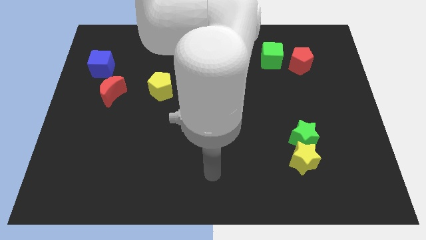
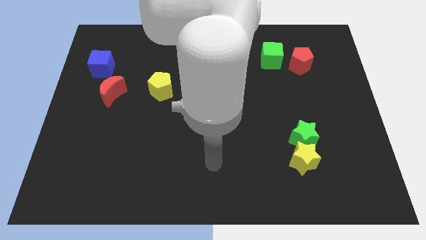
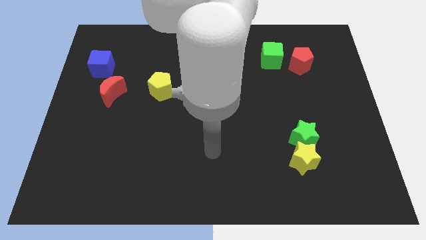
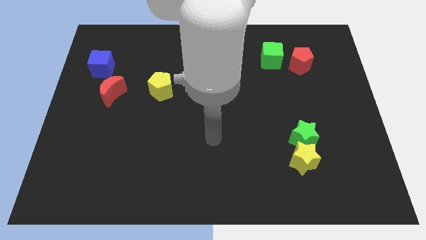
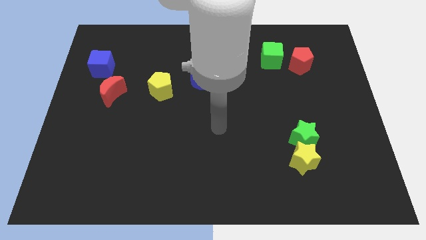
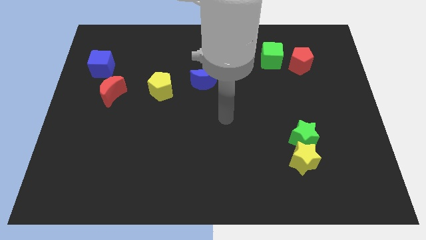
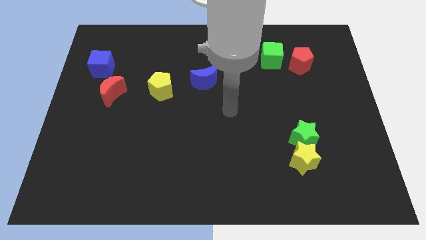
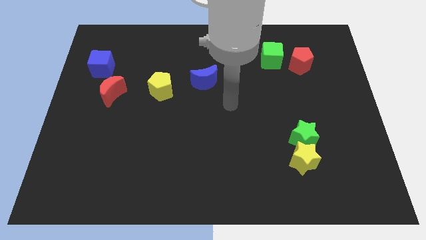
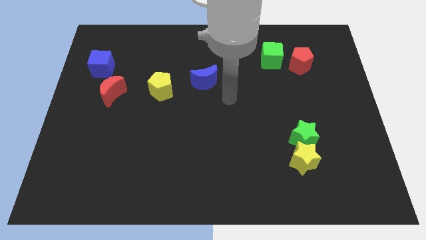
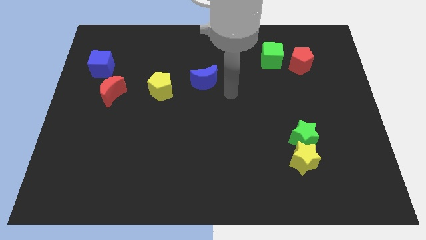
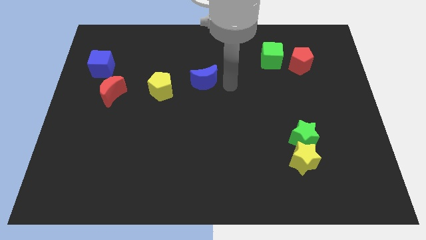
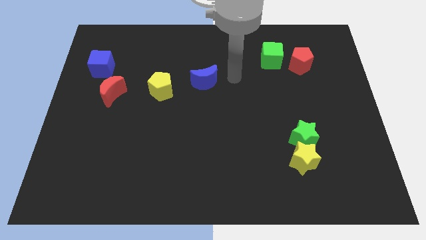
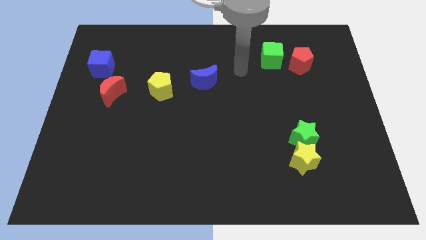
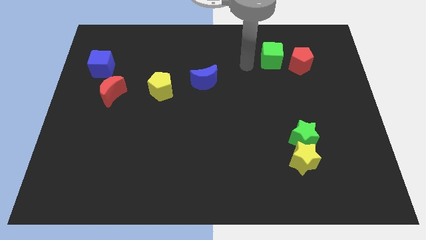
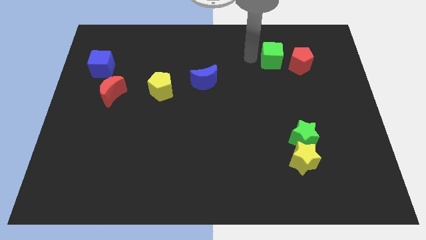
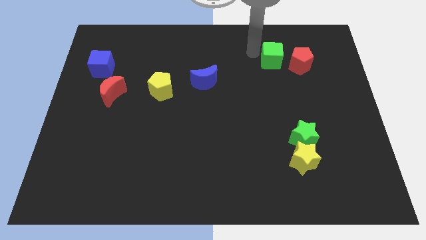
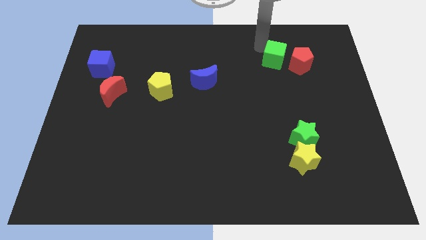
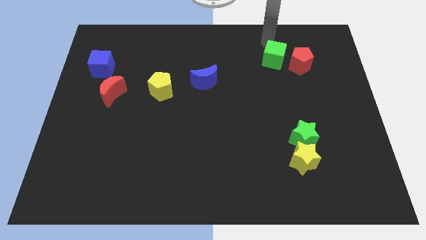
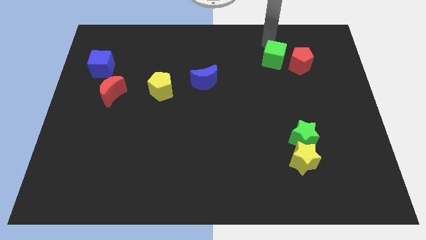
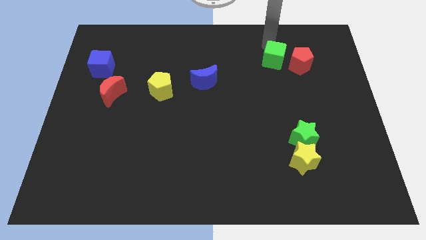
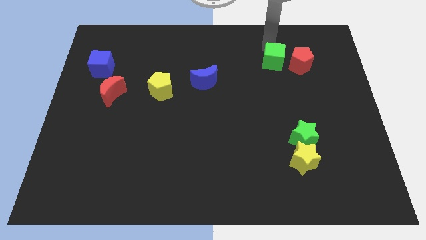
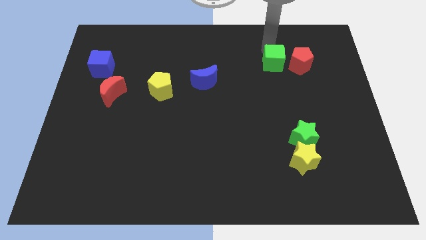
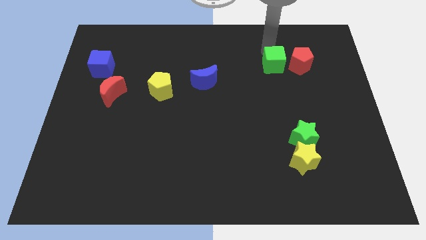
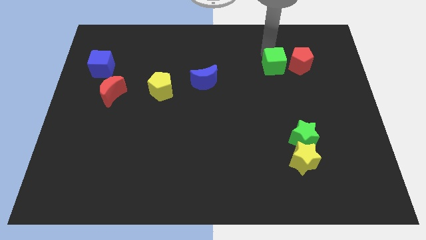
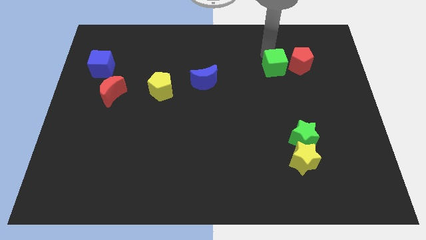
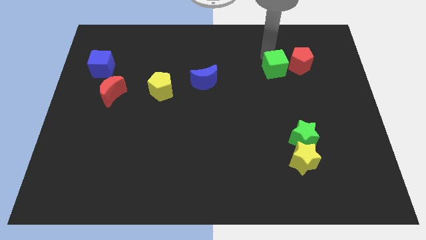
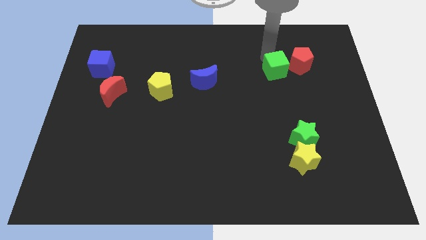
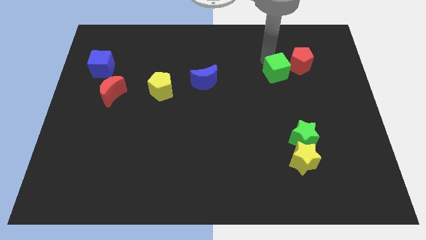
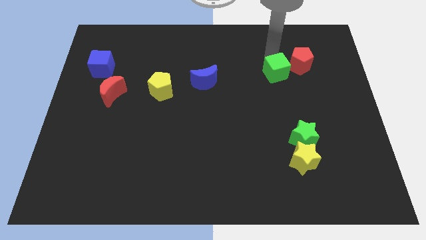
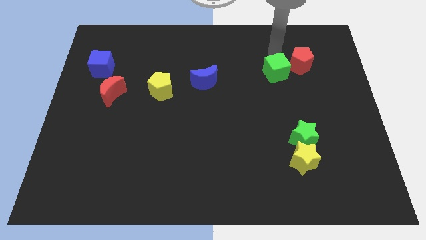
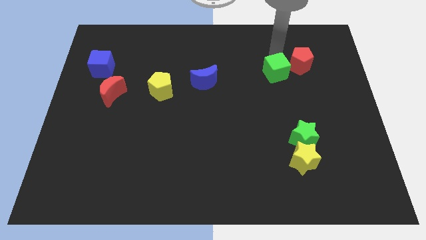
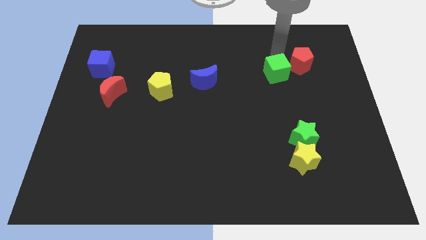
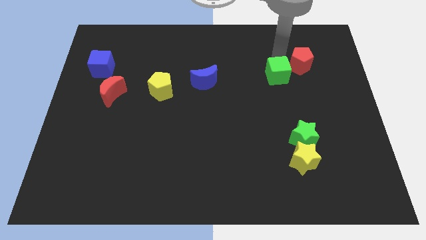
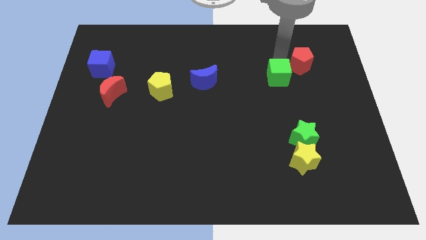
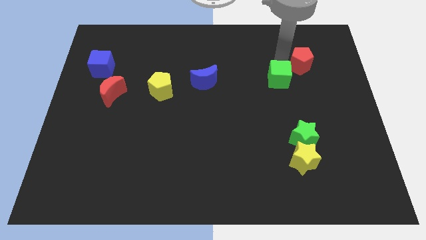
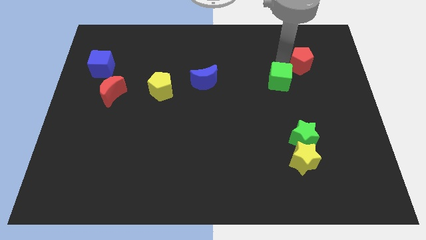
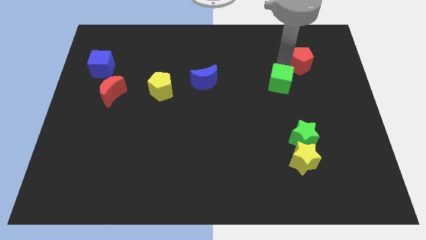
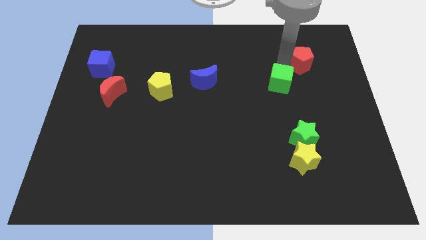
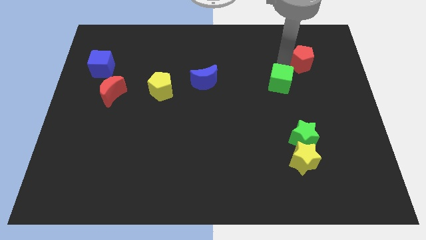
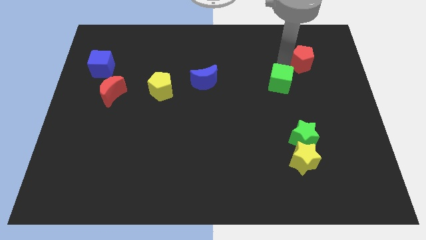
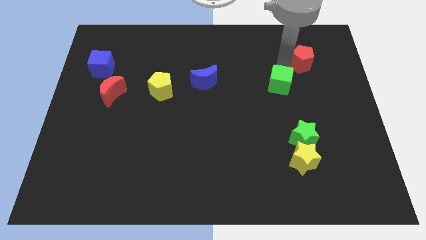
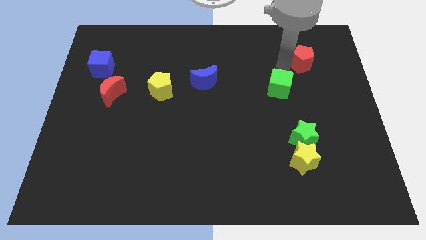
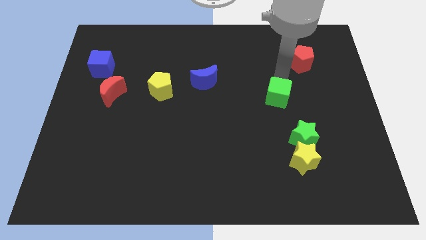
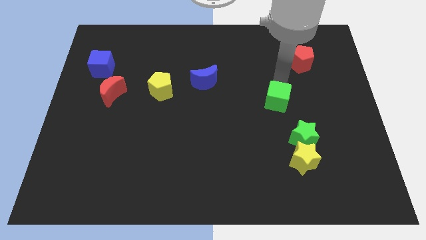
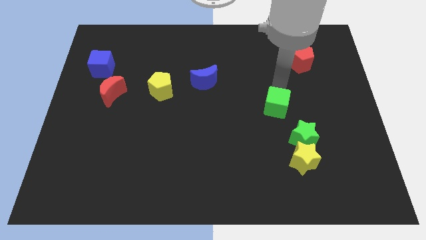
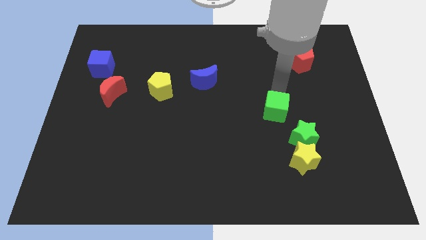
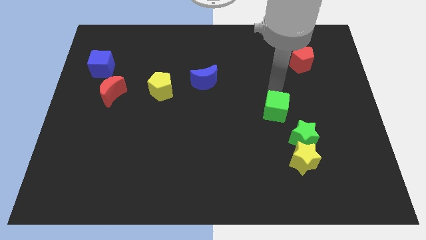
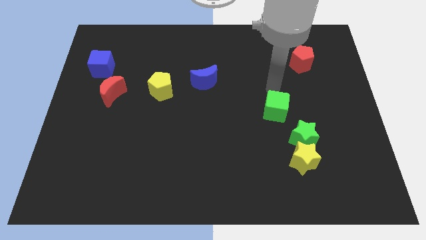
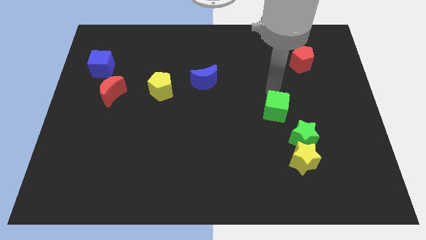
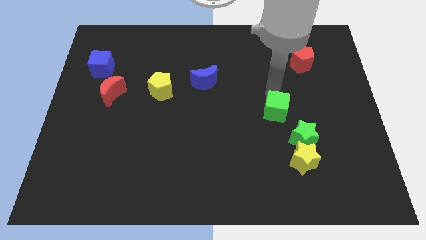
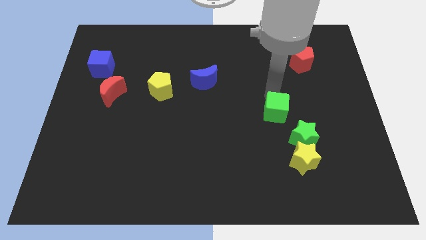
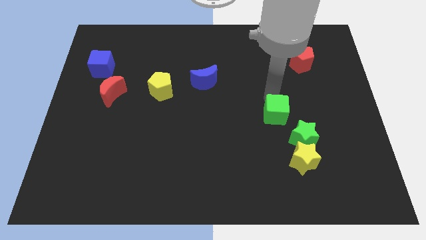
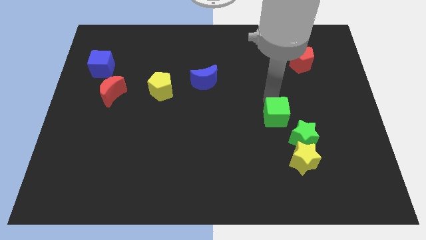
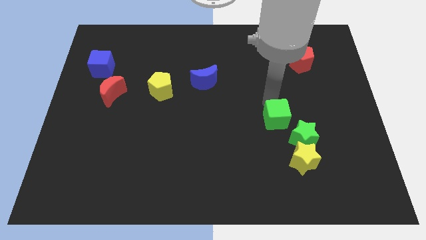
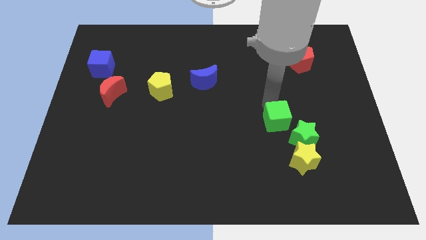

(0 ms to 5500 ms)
slide the green cube down

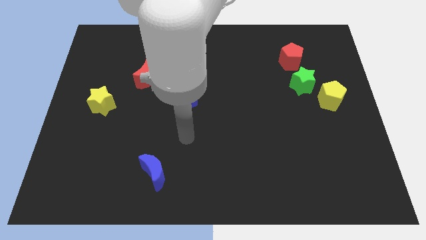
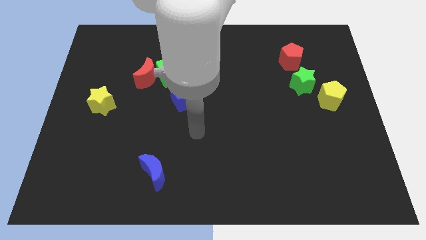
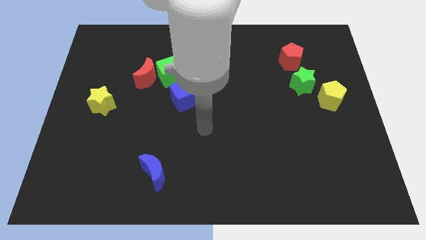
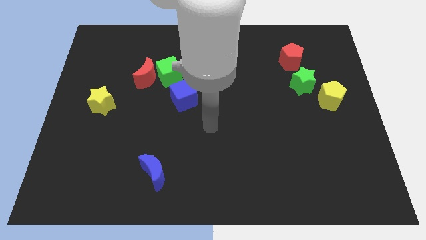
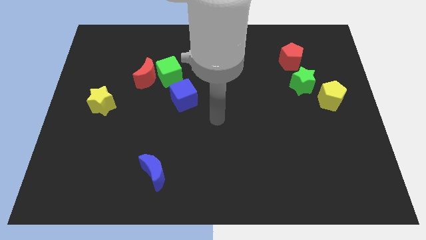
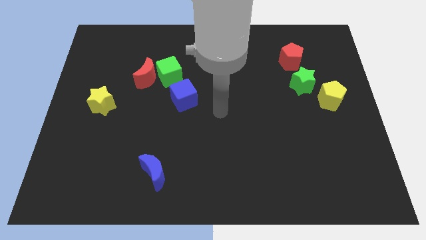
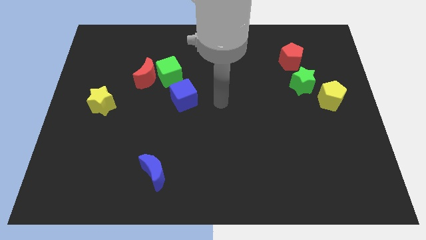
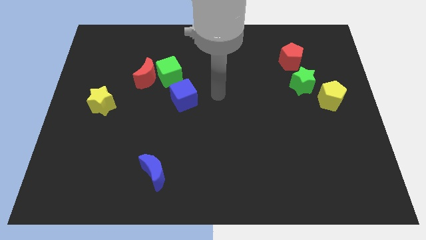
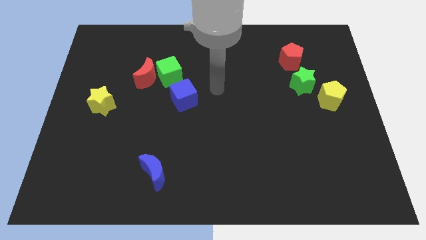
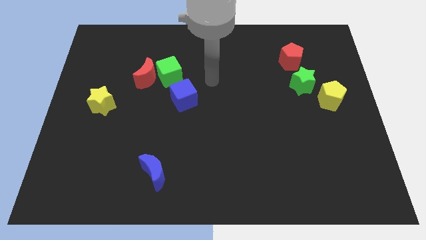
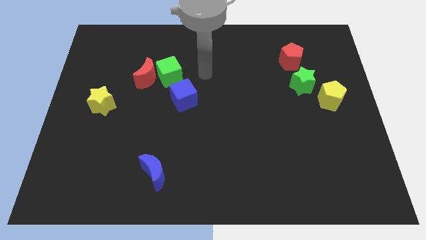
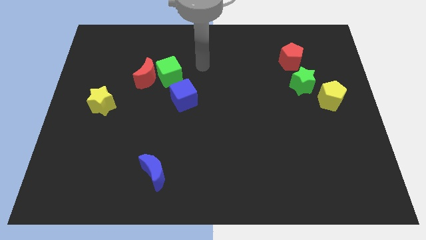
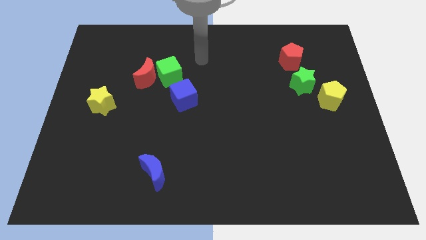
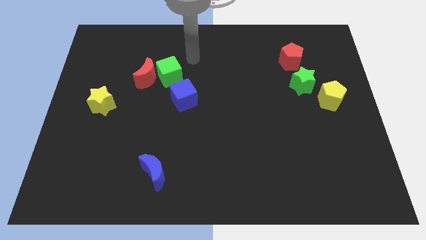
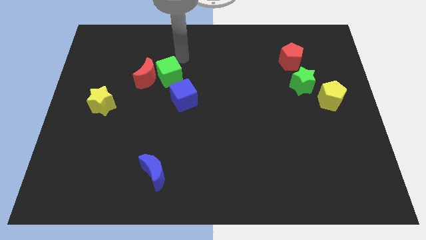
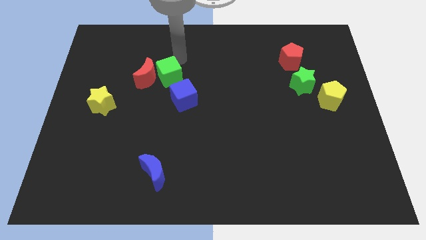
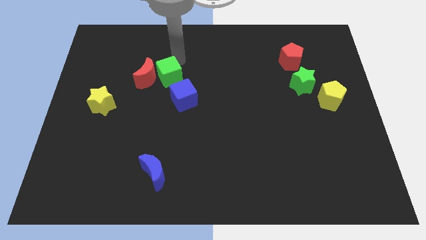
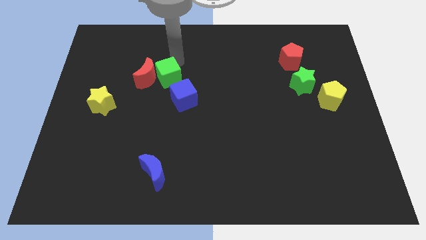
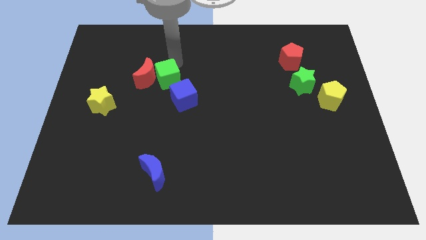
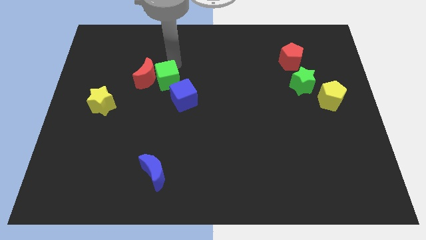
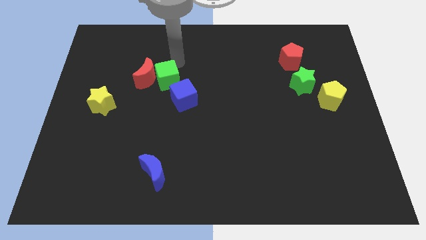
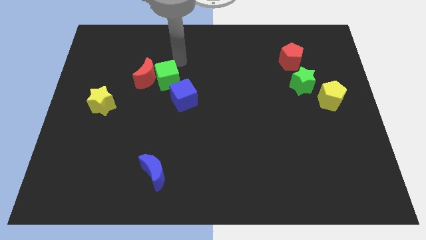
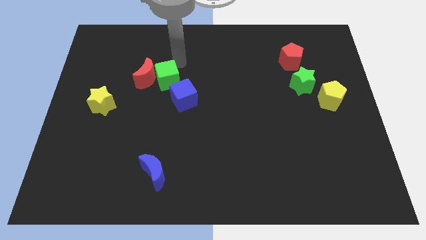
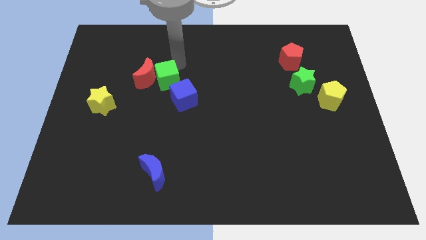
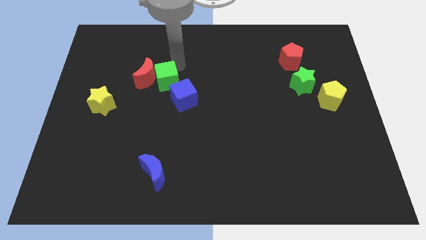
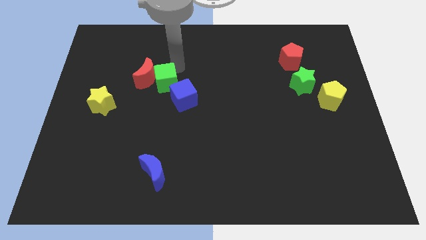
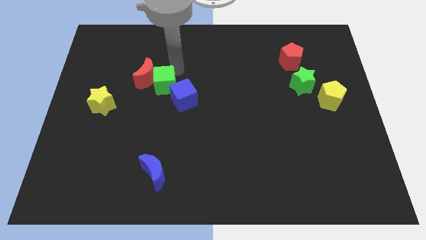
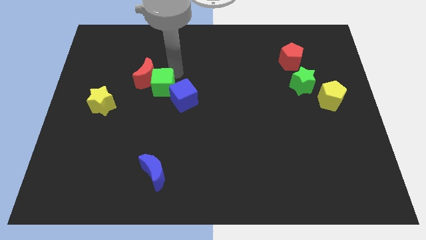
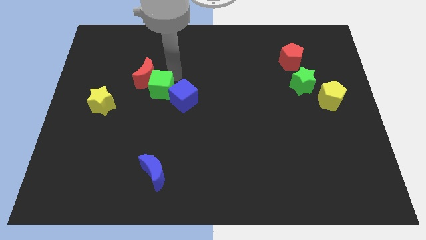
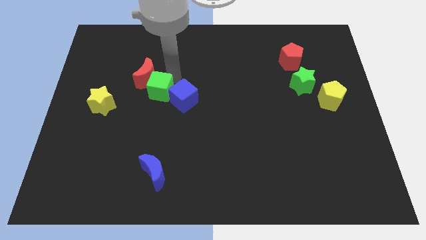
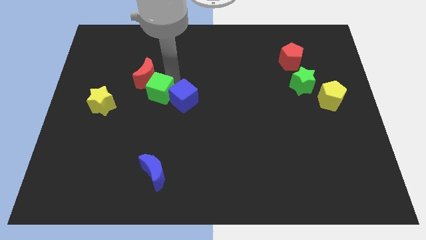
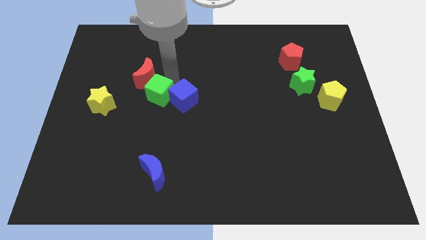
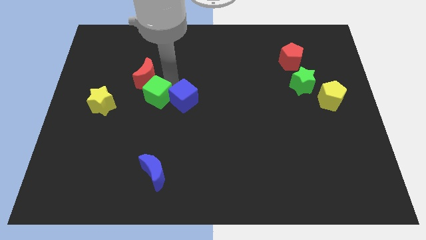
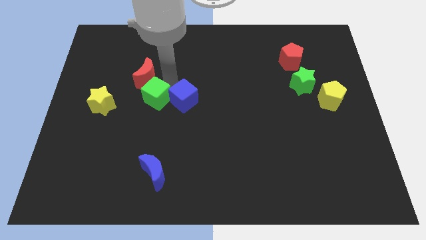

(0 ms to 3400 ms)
push the green cube somewhat downwards
